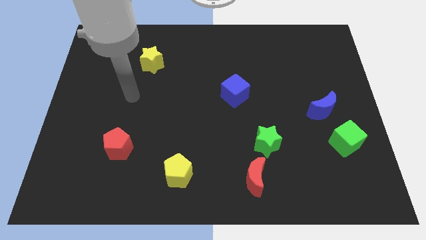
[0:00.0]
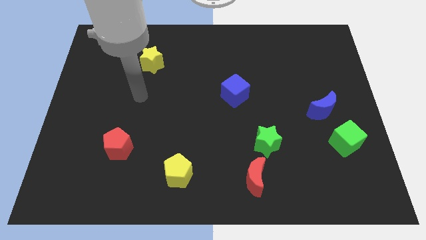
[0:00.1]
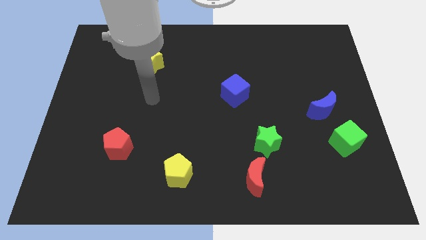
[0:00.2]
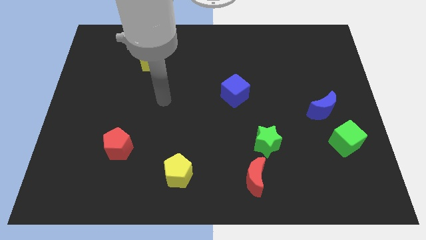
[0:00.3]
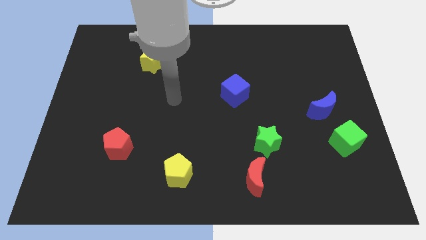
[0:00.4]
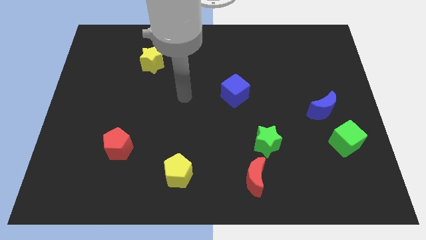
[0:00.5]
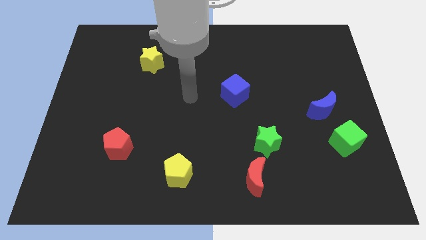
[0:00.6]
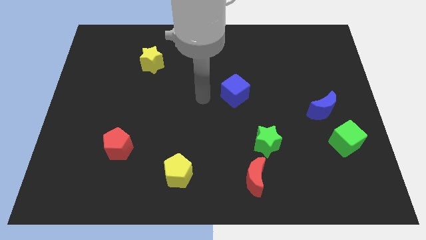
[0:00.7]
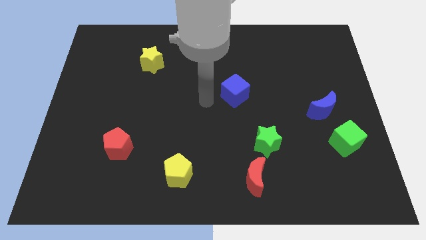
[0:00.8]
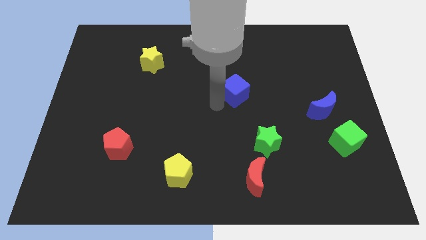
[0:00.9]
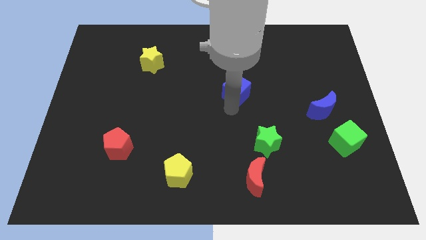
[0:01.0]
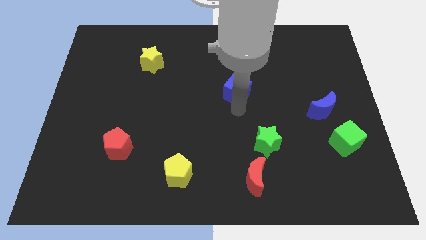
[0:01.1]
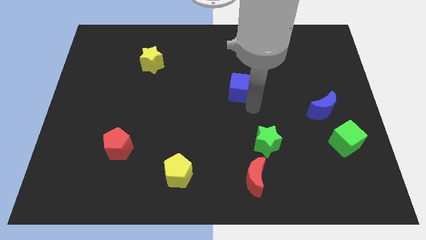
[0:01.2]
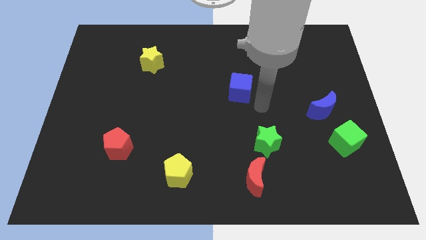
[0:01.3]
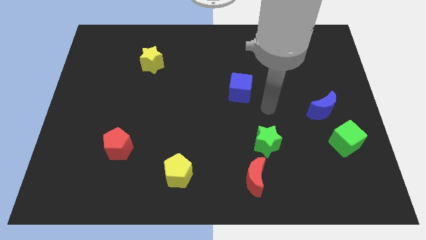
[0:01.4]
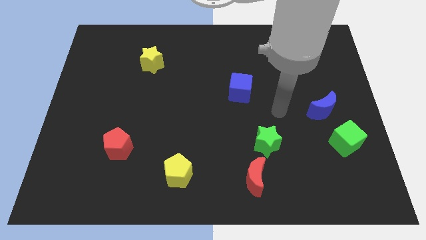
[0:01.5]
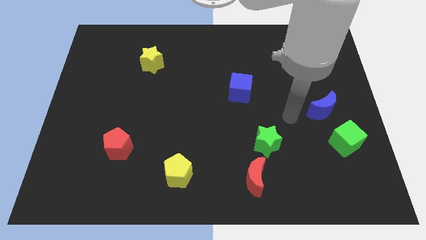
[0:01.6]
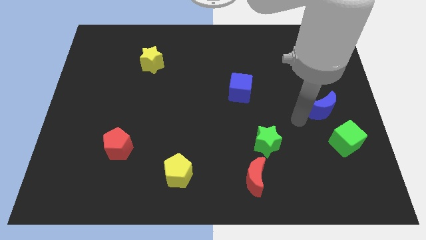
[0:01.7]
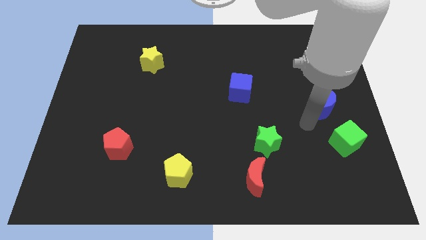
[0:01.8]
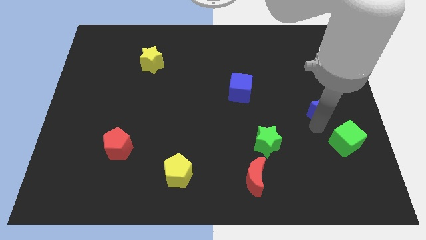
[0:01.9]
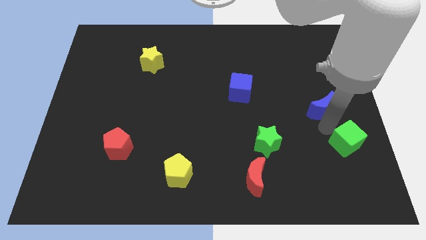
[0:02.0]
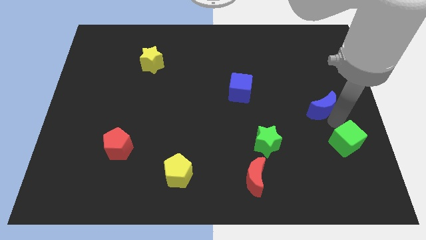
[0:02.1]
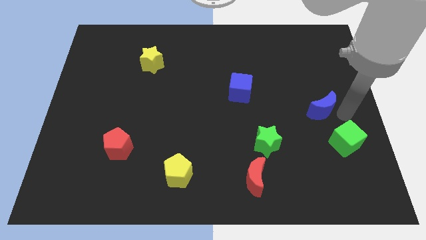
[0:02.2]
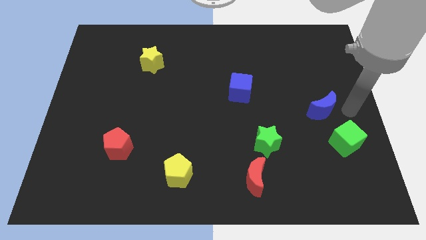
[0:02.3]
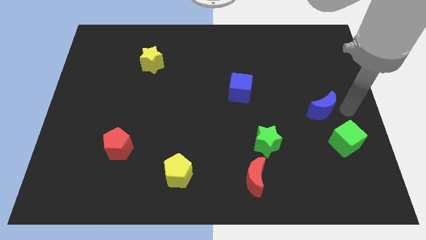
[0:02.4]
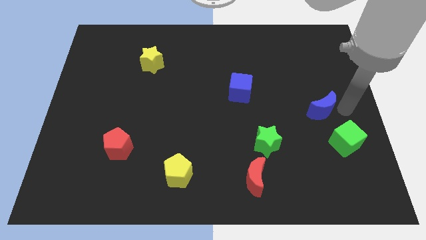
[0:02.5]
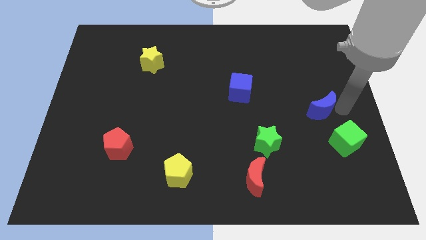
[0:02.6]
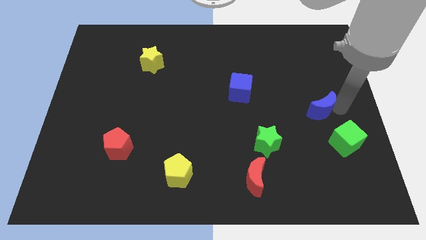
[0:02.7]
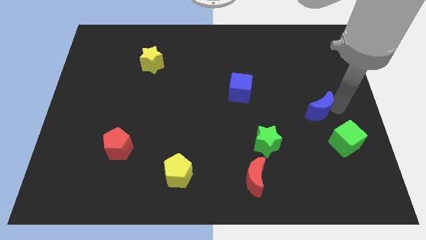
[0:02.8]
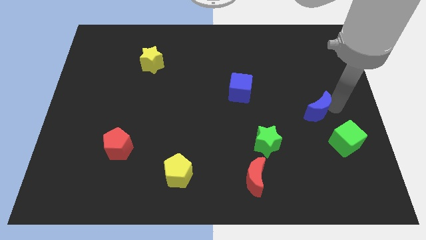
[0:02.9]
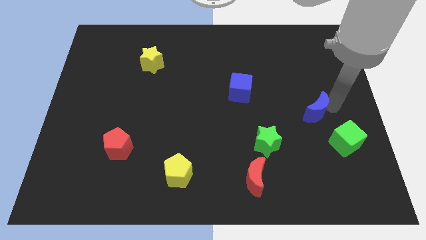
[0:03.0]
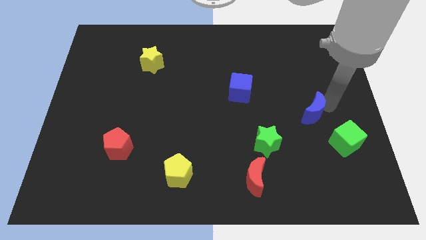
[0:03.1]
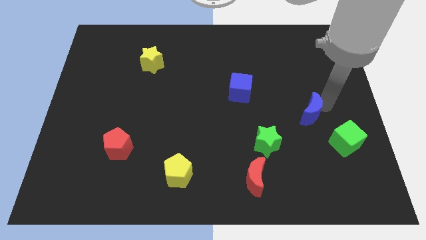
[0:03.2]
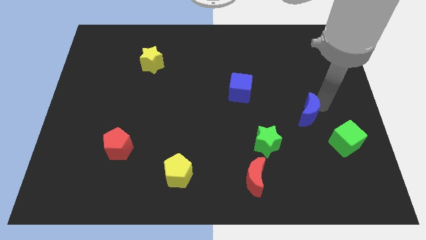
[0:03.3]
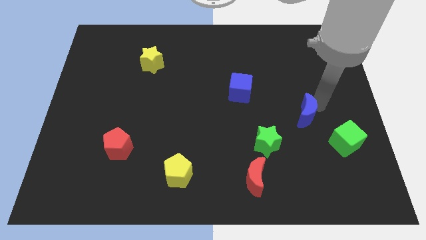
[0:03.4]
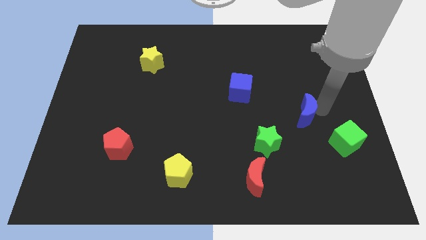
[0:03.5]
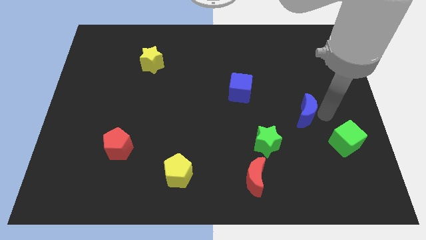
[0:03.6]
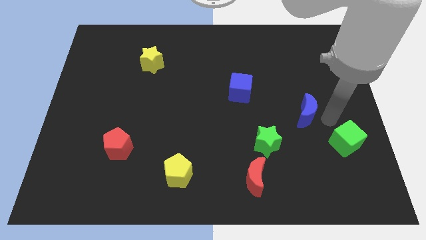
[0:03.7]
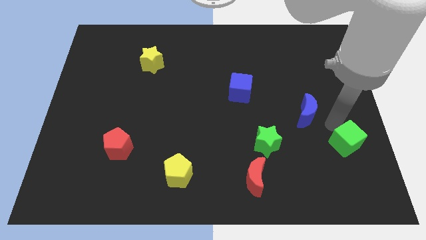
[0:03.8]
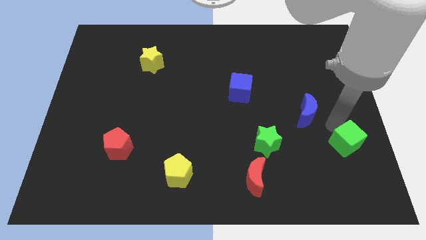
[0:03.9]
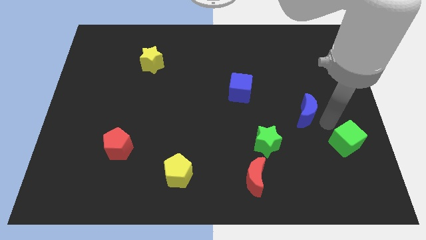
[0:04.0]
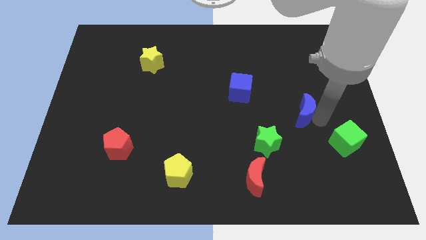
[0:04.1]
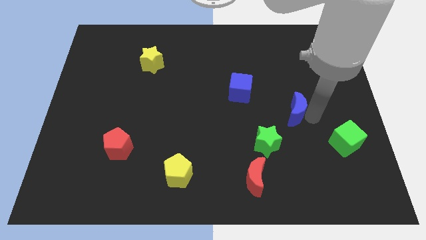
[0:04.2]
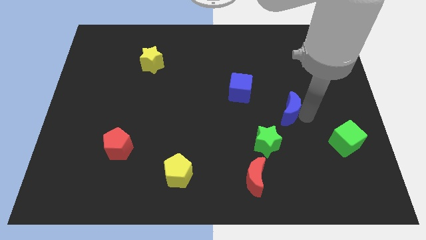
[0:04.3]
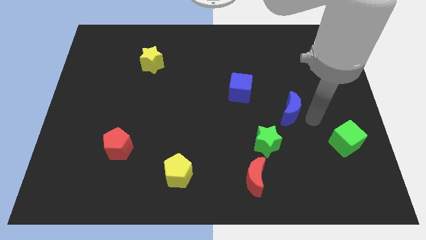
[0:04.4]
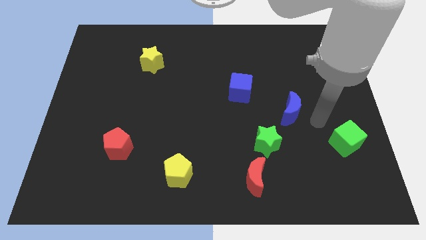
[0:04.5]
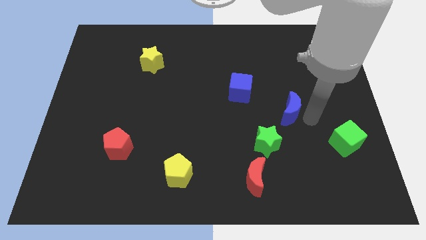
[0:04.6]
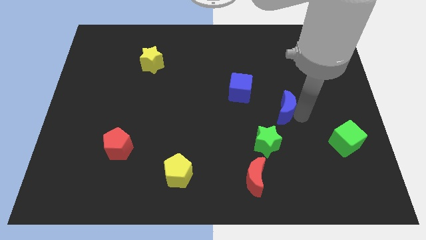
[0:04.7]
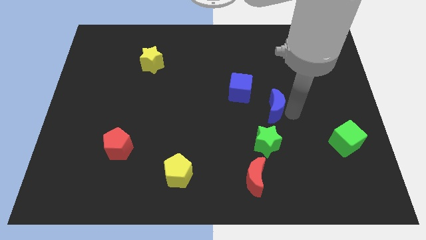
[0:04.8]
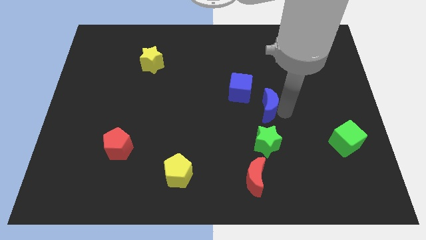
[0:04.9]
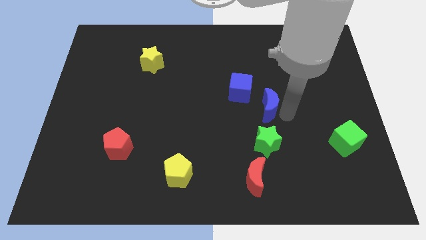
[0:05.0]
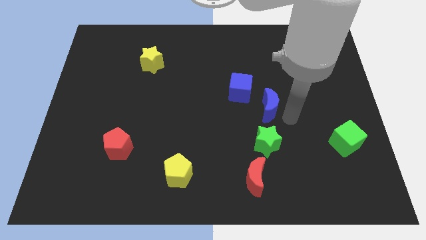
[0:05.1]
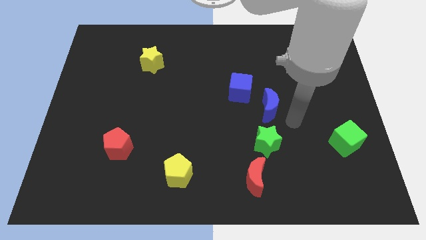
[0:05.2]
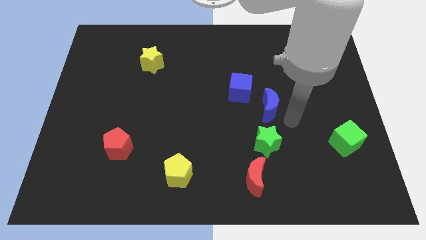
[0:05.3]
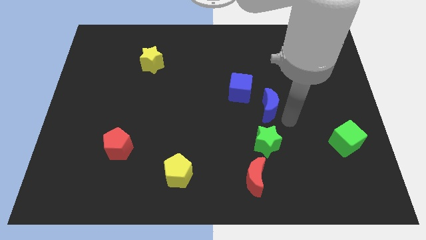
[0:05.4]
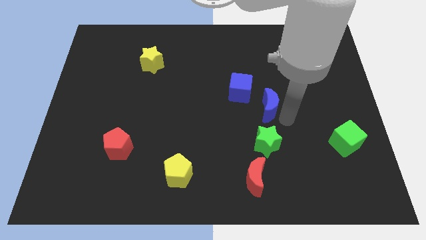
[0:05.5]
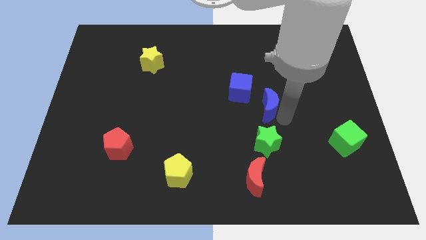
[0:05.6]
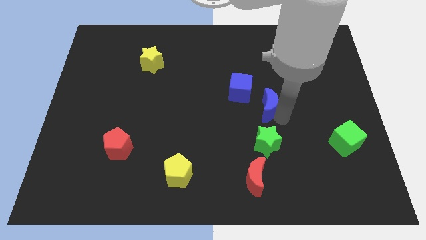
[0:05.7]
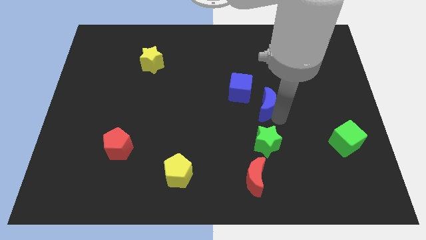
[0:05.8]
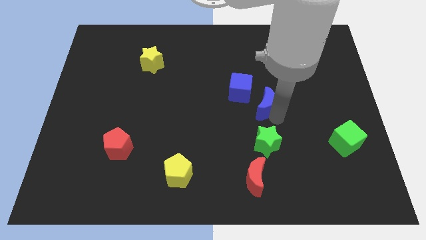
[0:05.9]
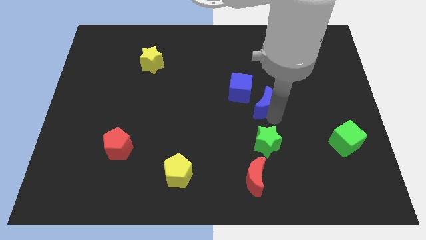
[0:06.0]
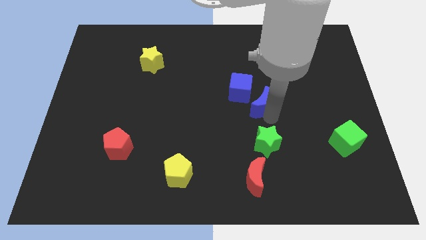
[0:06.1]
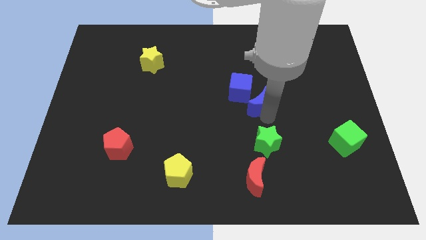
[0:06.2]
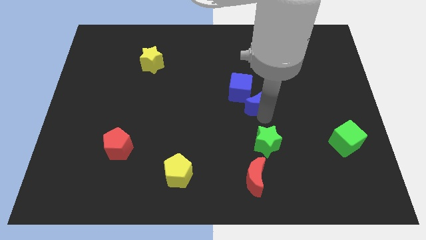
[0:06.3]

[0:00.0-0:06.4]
push the blue moon next to the blue cube

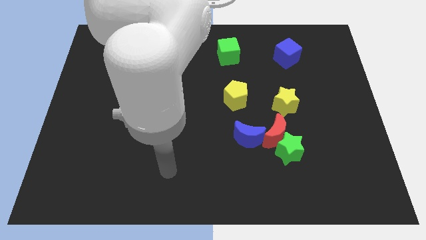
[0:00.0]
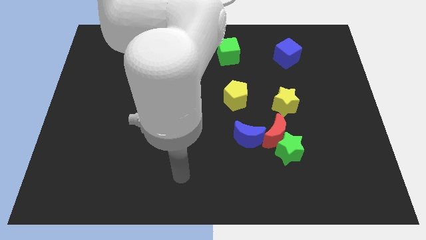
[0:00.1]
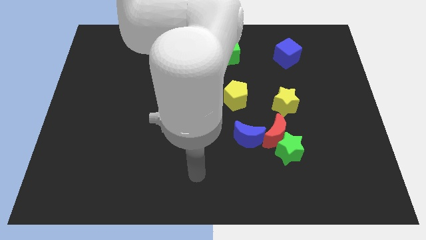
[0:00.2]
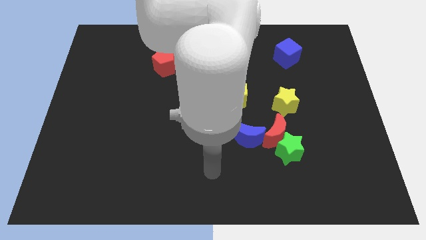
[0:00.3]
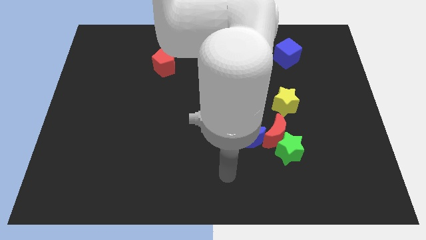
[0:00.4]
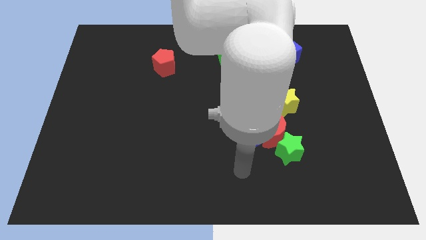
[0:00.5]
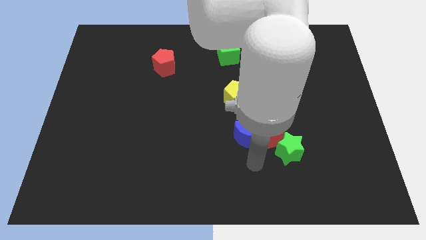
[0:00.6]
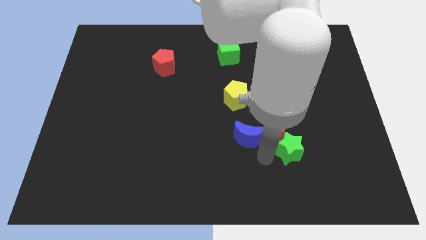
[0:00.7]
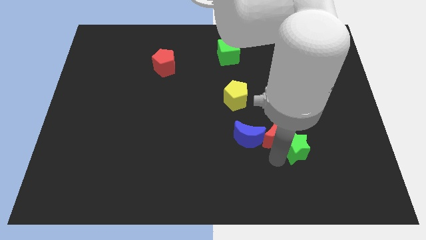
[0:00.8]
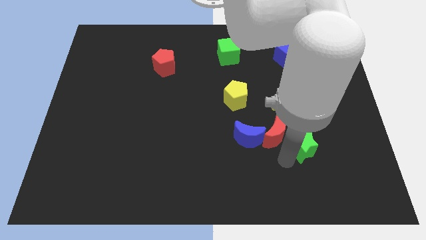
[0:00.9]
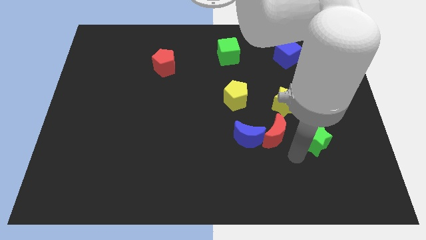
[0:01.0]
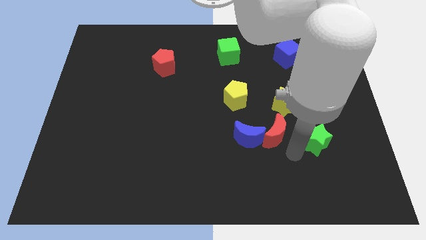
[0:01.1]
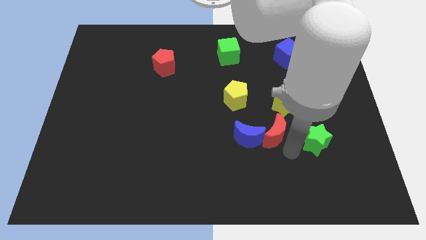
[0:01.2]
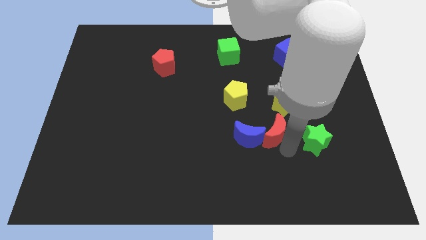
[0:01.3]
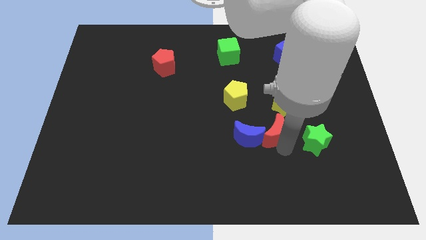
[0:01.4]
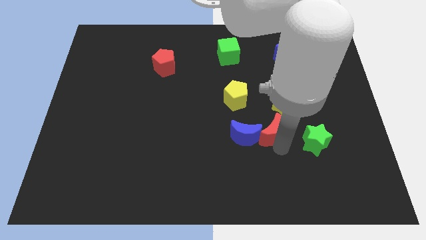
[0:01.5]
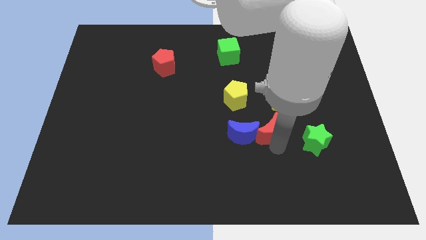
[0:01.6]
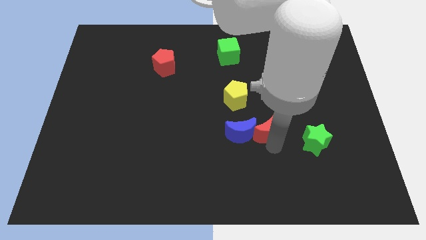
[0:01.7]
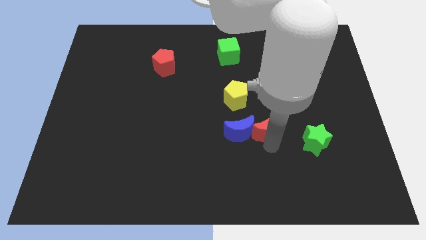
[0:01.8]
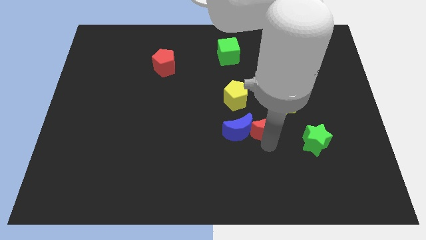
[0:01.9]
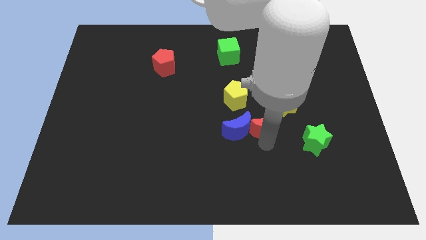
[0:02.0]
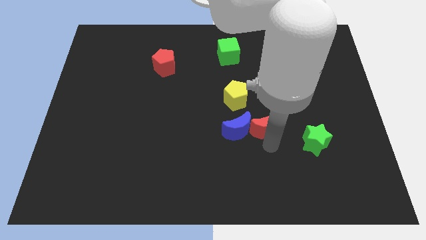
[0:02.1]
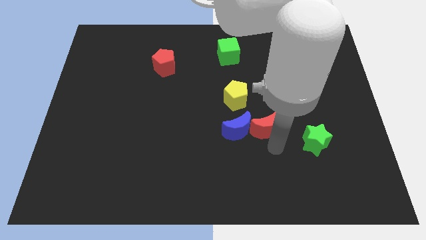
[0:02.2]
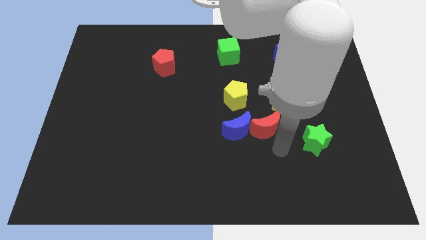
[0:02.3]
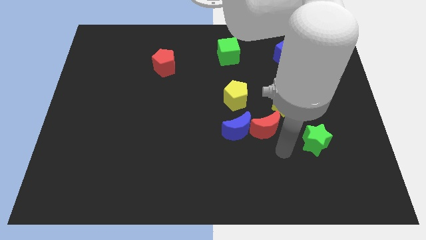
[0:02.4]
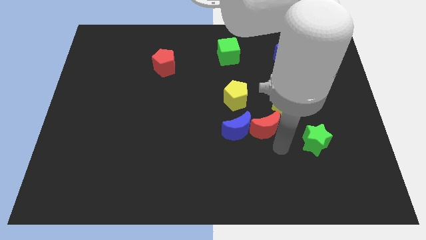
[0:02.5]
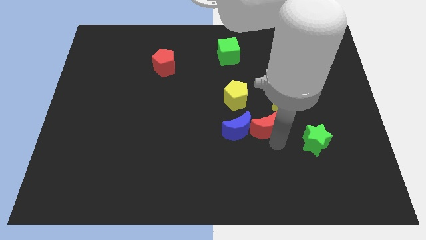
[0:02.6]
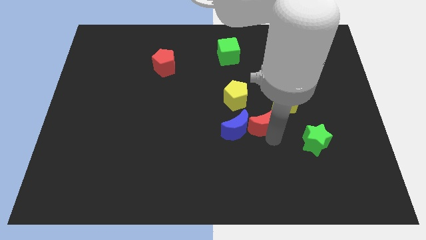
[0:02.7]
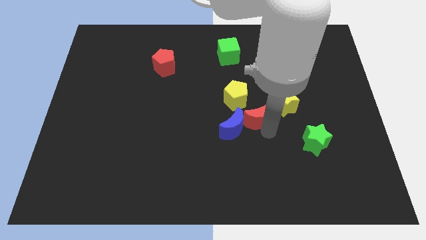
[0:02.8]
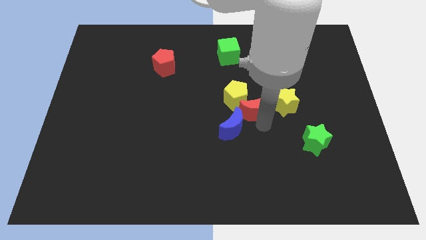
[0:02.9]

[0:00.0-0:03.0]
put the red moon next to the yellow pentagon
